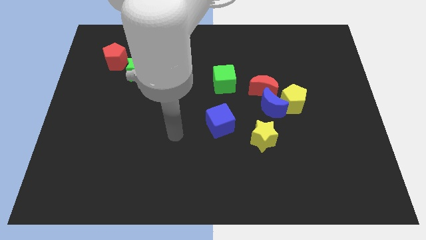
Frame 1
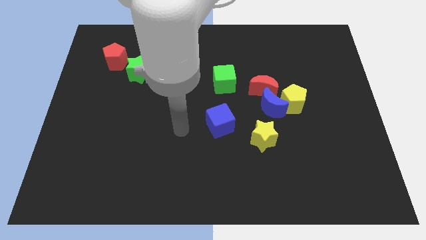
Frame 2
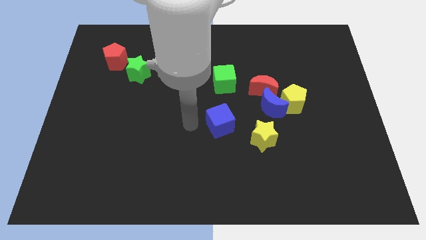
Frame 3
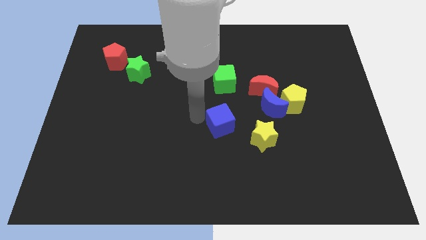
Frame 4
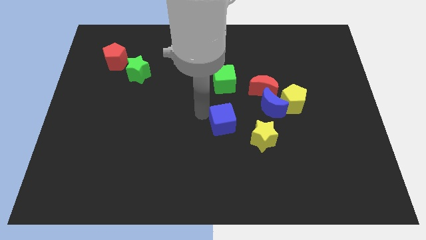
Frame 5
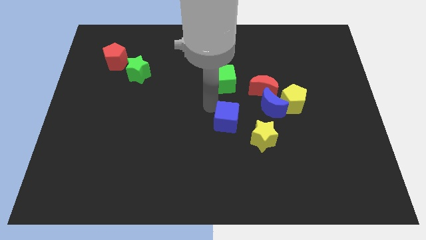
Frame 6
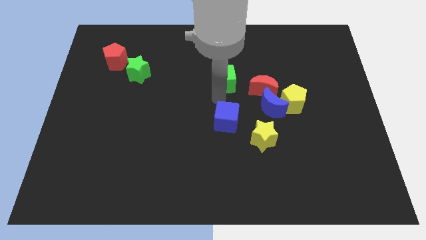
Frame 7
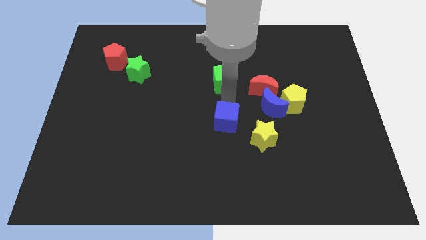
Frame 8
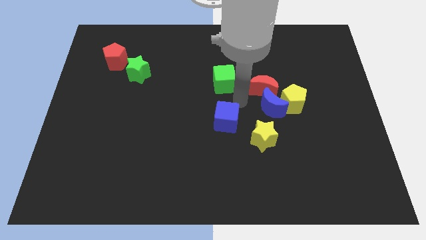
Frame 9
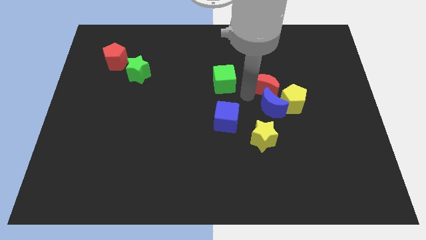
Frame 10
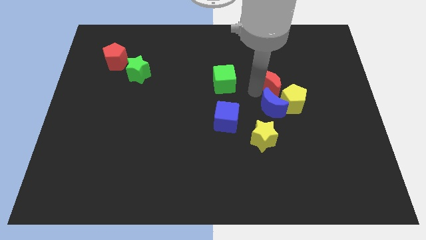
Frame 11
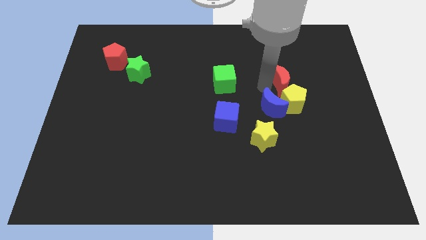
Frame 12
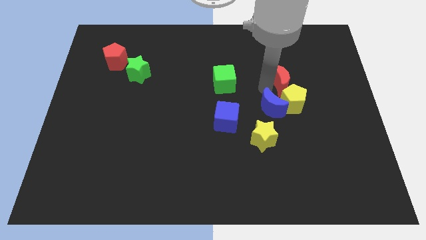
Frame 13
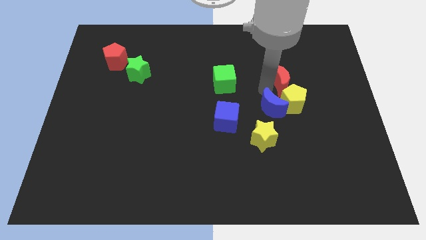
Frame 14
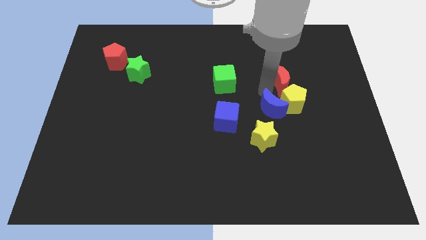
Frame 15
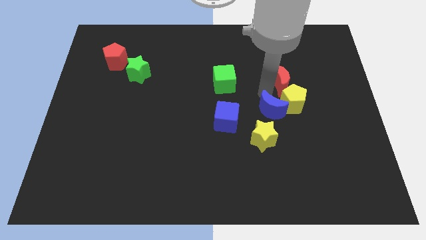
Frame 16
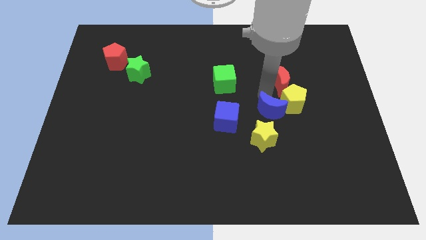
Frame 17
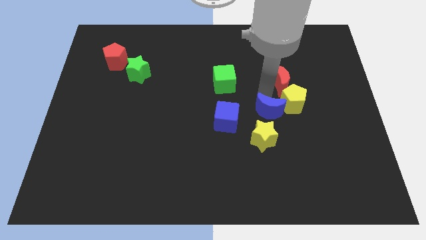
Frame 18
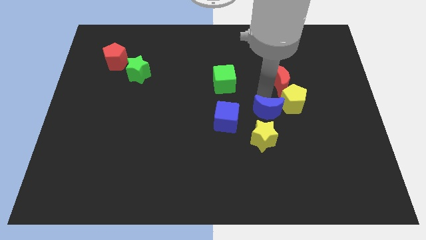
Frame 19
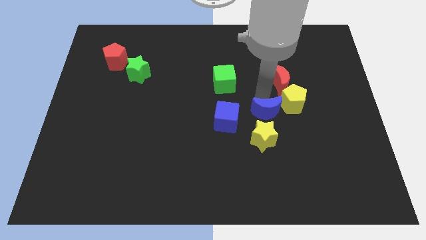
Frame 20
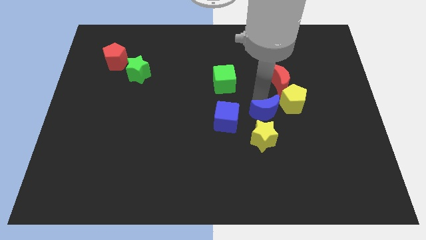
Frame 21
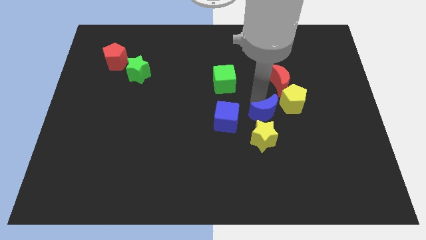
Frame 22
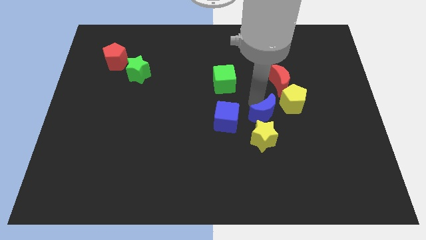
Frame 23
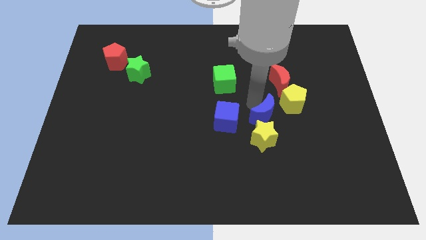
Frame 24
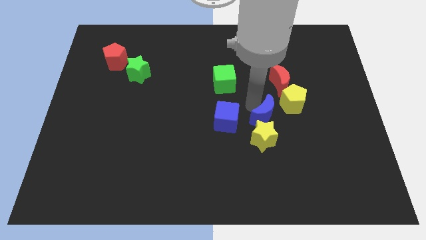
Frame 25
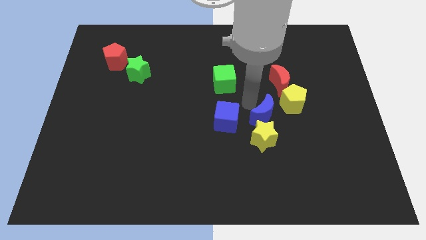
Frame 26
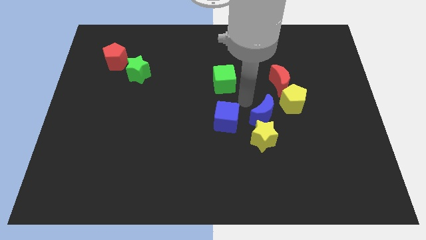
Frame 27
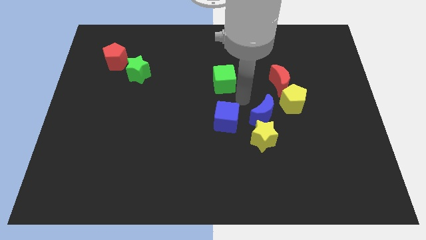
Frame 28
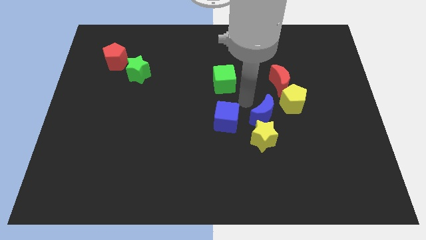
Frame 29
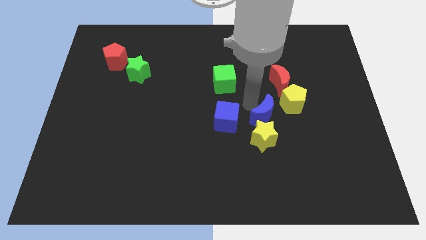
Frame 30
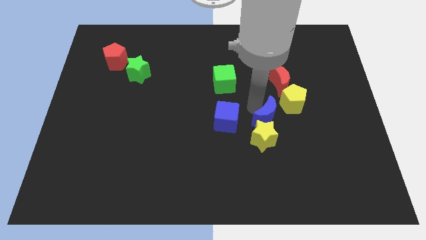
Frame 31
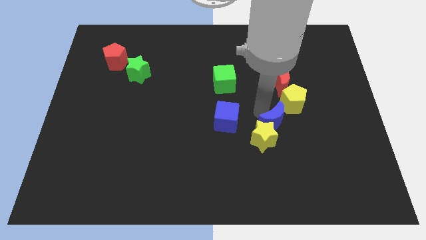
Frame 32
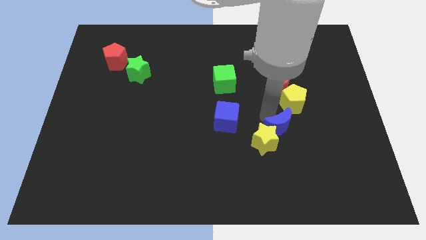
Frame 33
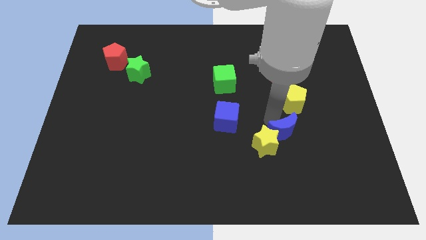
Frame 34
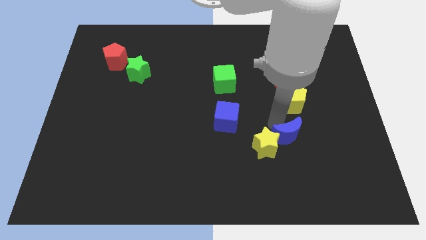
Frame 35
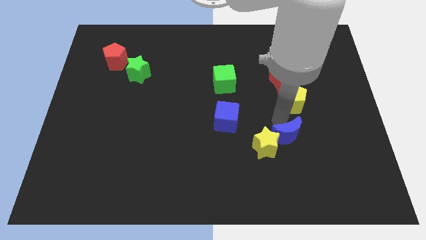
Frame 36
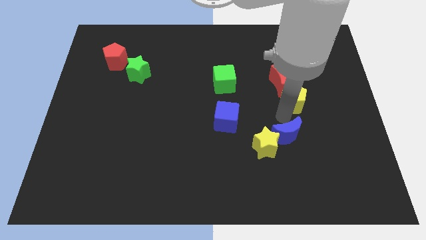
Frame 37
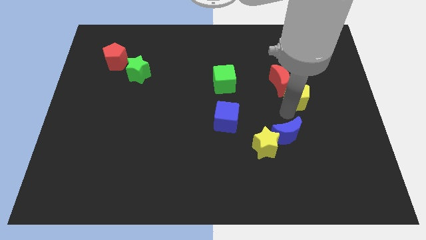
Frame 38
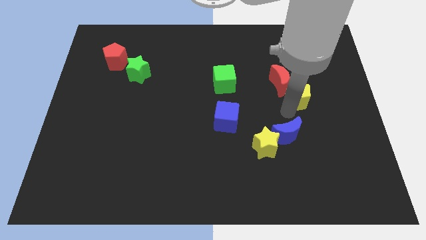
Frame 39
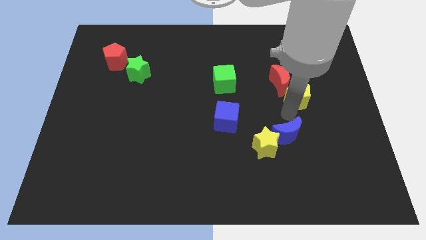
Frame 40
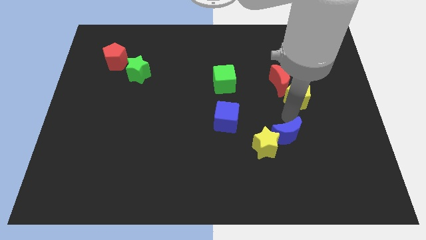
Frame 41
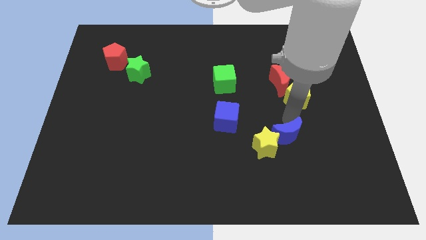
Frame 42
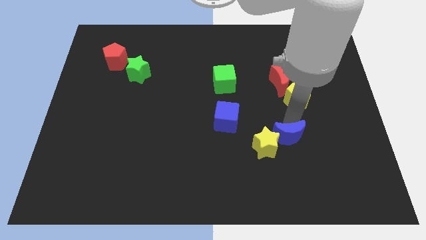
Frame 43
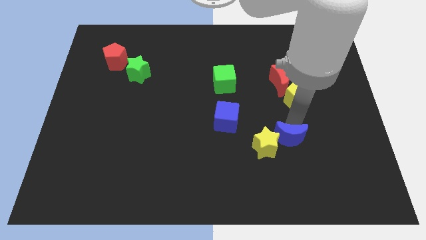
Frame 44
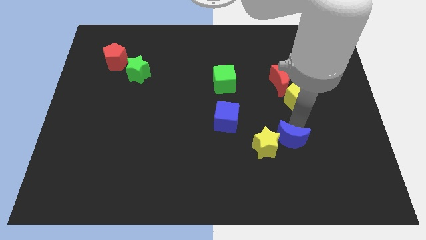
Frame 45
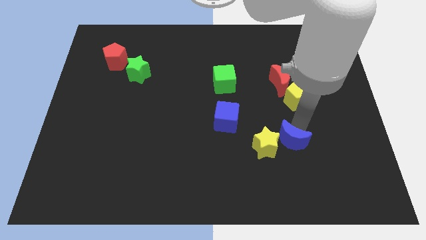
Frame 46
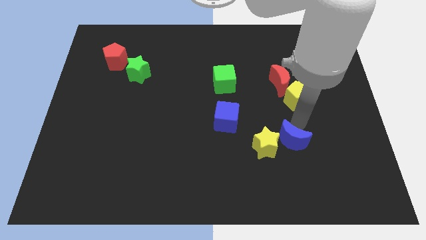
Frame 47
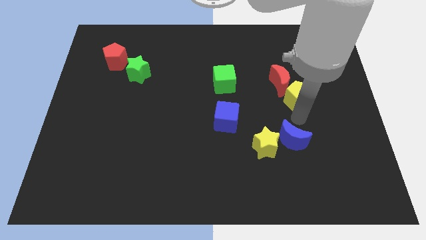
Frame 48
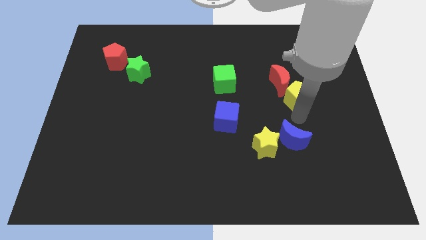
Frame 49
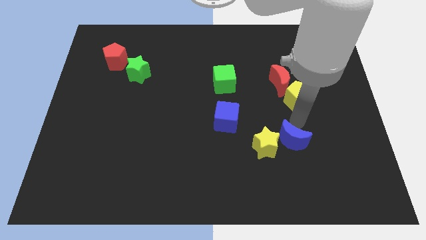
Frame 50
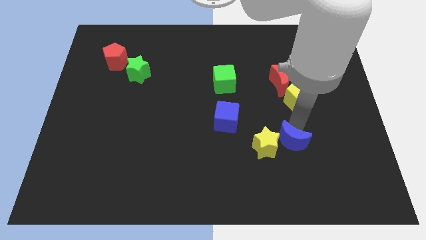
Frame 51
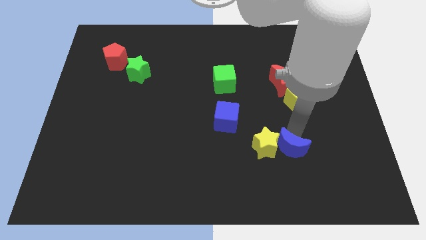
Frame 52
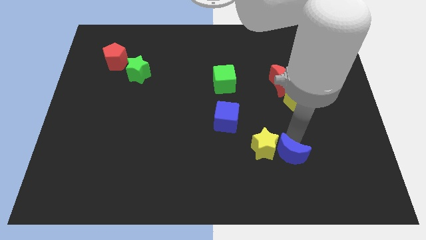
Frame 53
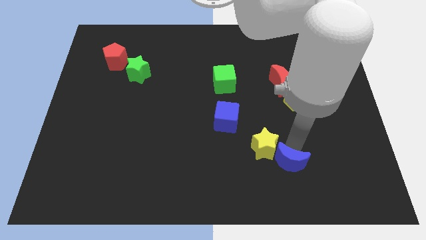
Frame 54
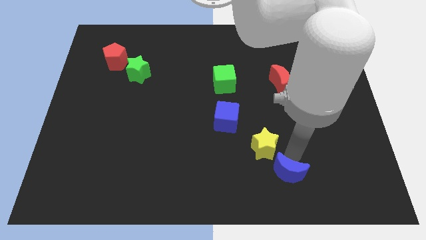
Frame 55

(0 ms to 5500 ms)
slide the blue moon below the yellow star

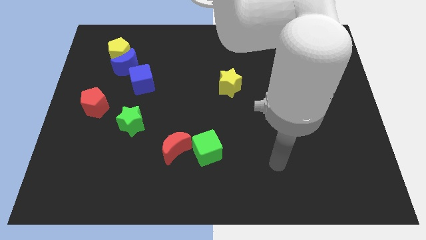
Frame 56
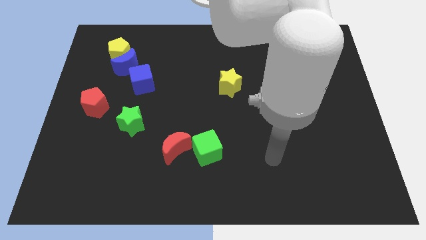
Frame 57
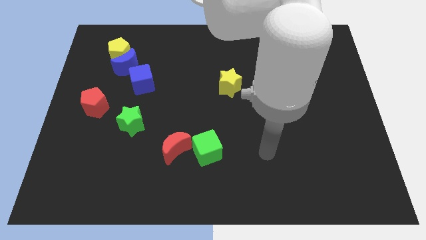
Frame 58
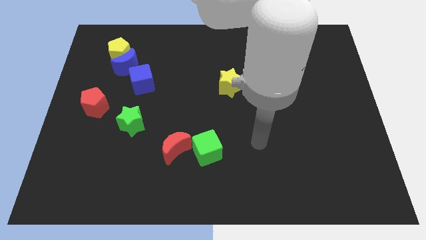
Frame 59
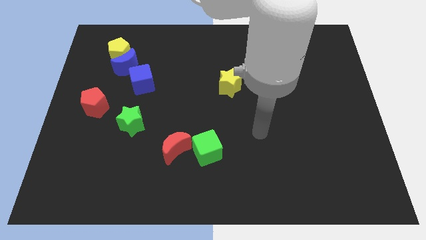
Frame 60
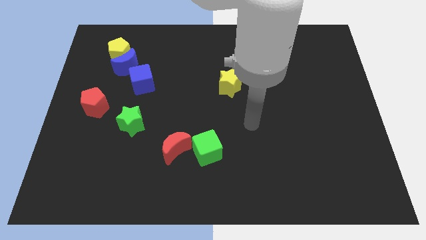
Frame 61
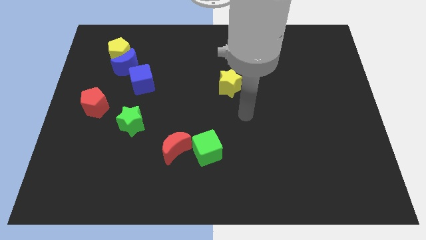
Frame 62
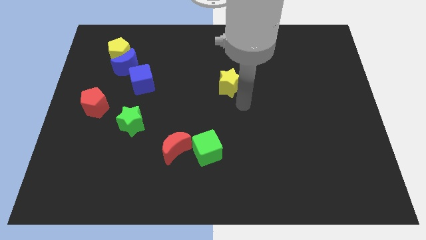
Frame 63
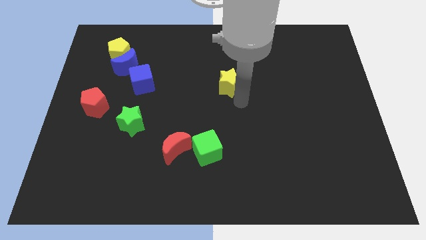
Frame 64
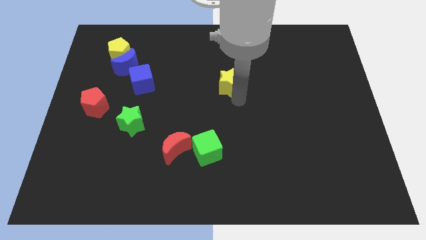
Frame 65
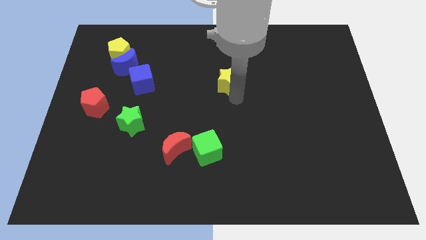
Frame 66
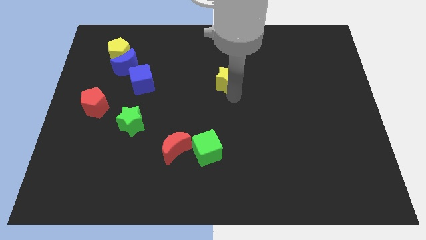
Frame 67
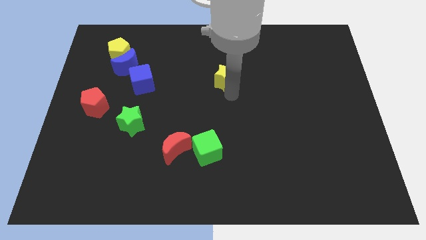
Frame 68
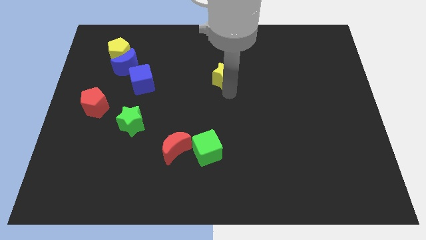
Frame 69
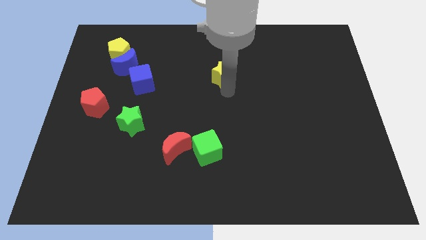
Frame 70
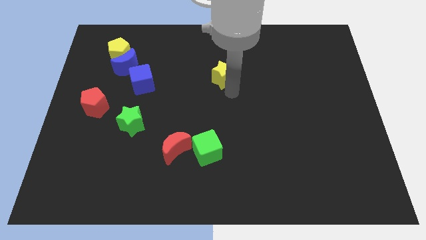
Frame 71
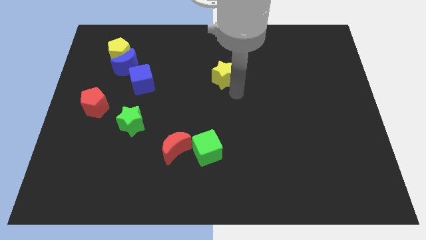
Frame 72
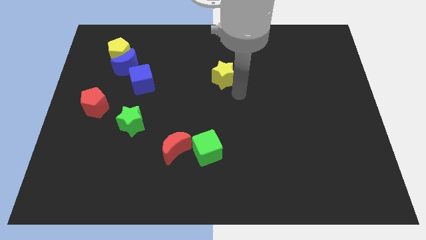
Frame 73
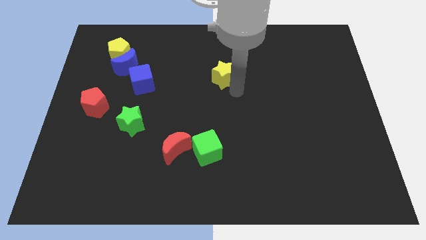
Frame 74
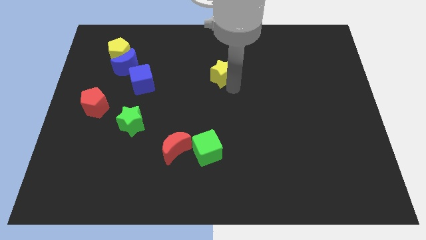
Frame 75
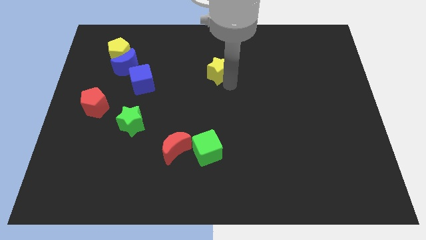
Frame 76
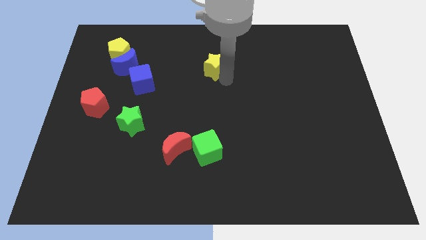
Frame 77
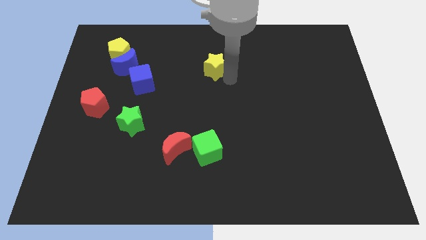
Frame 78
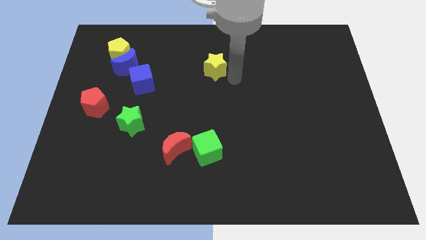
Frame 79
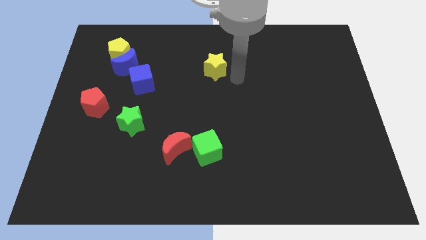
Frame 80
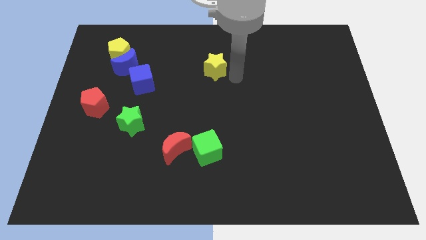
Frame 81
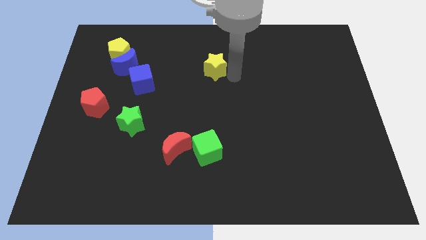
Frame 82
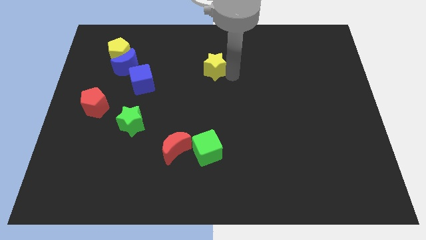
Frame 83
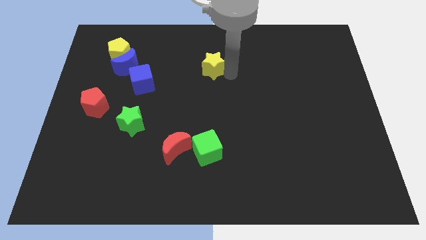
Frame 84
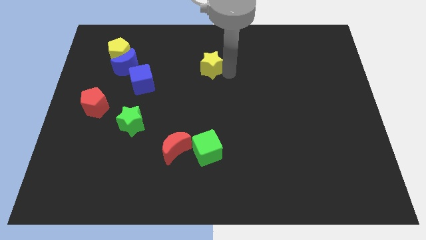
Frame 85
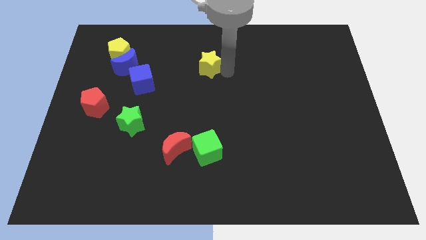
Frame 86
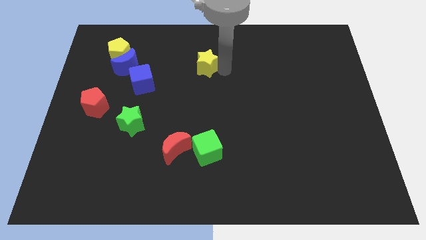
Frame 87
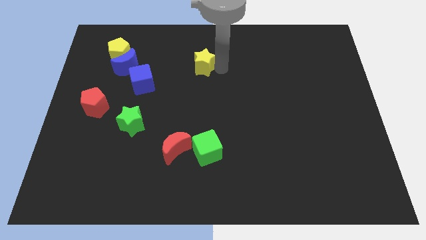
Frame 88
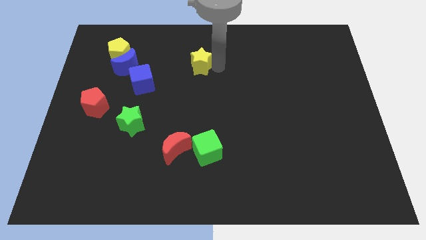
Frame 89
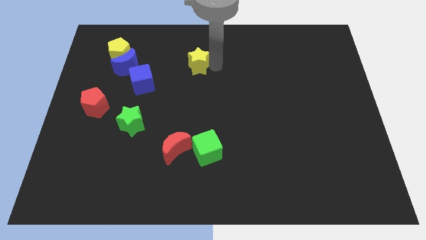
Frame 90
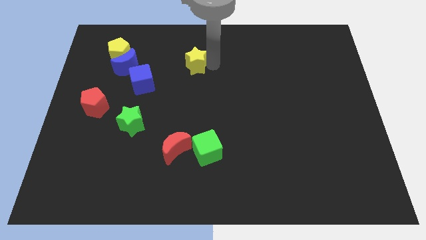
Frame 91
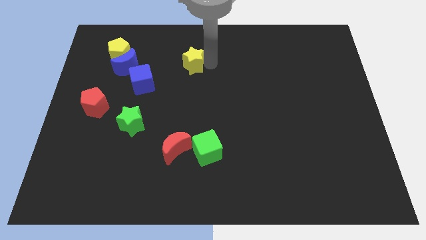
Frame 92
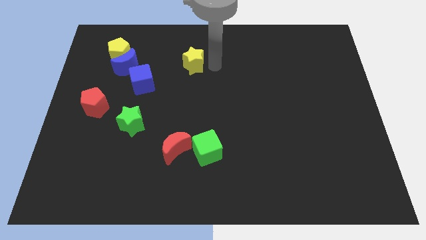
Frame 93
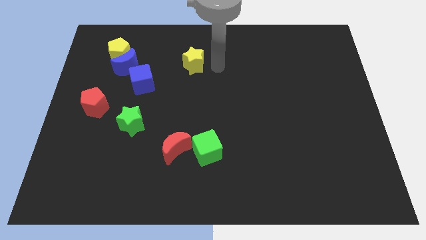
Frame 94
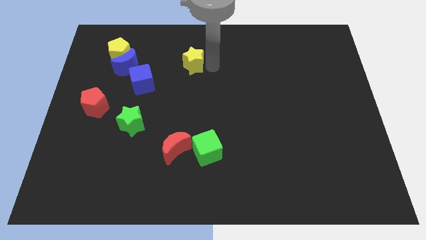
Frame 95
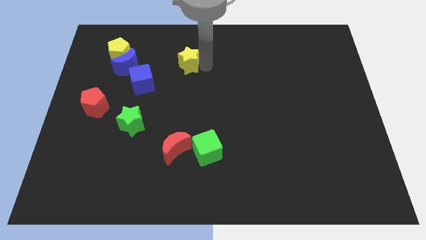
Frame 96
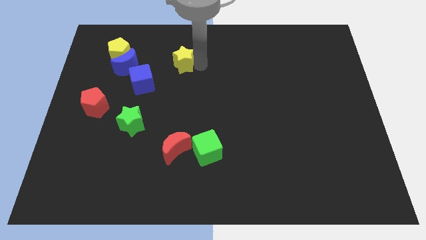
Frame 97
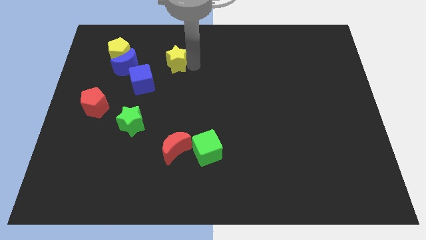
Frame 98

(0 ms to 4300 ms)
put the yellow star to the right of the yellow pentagon
